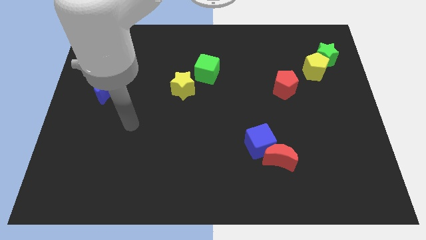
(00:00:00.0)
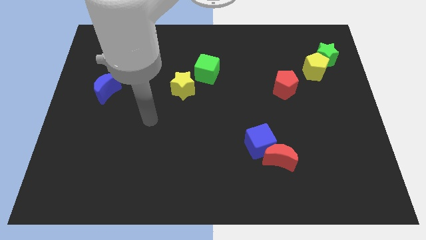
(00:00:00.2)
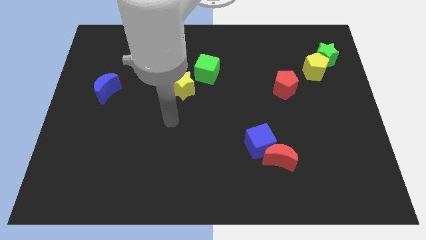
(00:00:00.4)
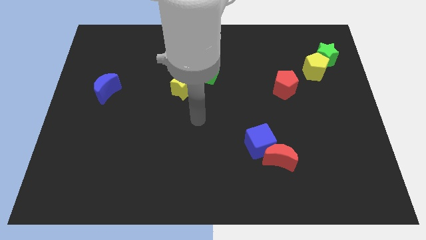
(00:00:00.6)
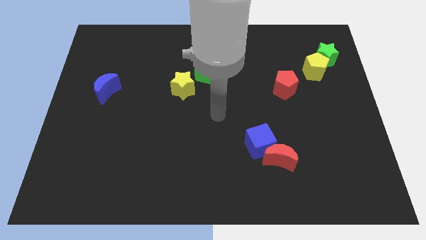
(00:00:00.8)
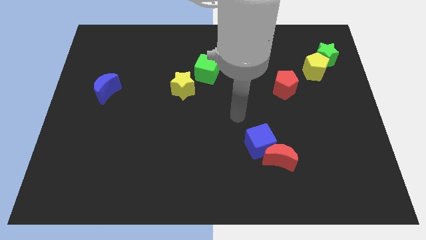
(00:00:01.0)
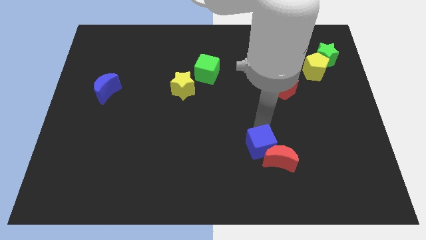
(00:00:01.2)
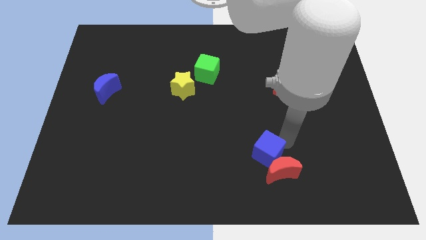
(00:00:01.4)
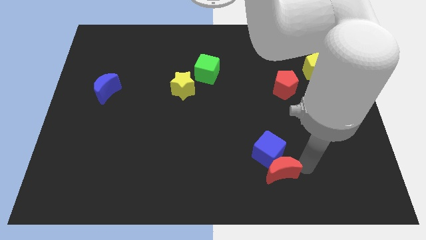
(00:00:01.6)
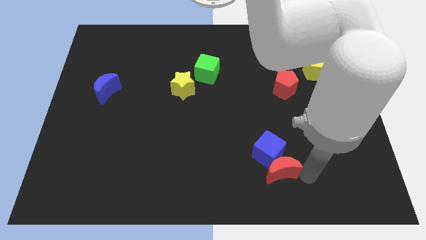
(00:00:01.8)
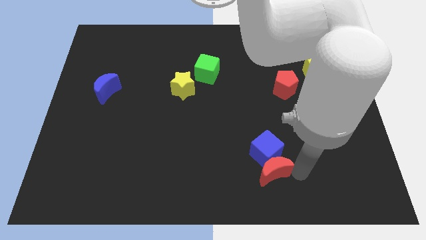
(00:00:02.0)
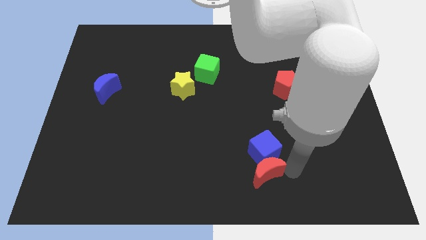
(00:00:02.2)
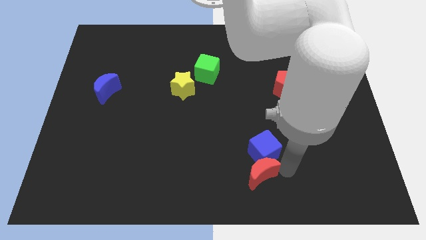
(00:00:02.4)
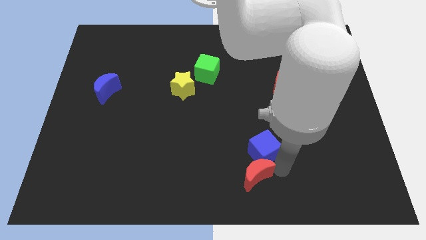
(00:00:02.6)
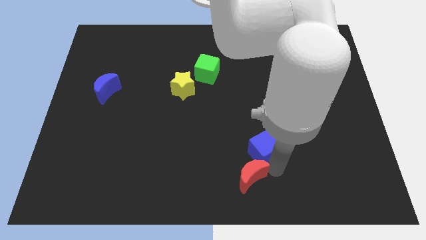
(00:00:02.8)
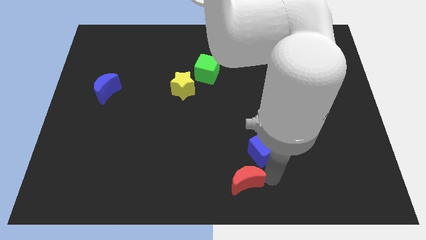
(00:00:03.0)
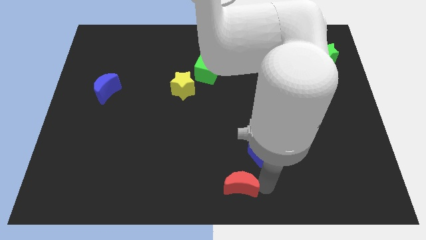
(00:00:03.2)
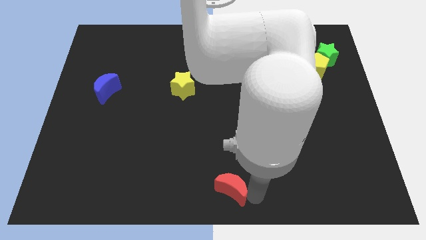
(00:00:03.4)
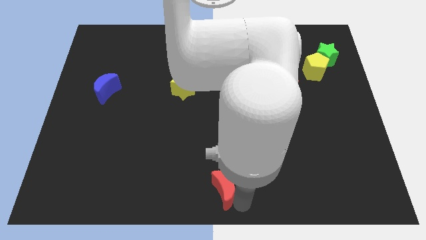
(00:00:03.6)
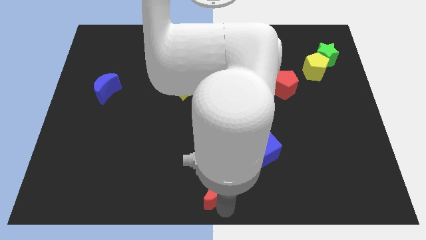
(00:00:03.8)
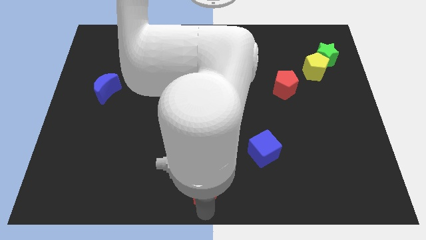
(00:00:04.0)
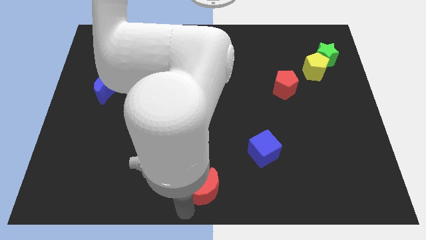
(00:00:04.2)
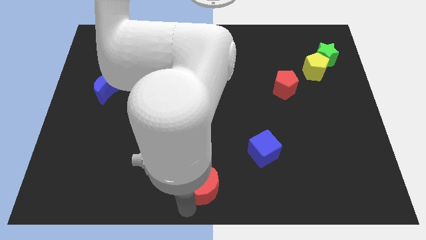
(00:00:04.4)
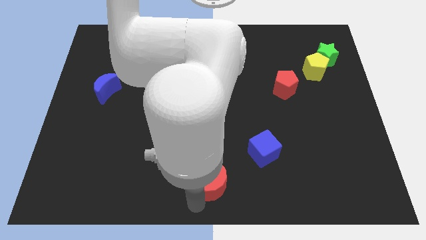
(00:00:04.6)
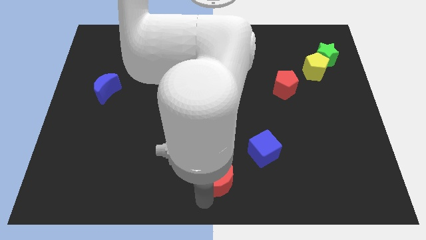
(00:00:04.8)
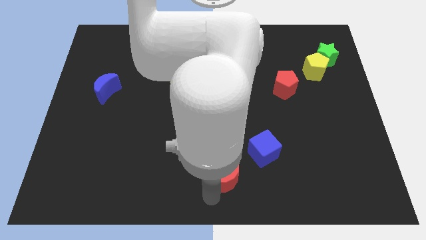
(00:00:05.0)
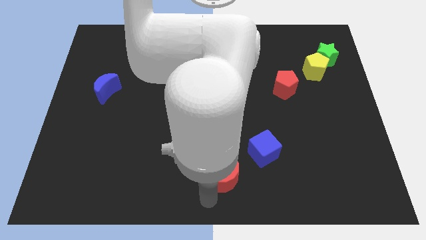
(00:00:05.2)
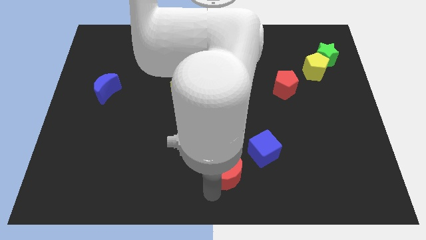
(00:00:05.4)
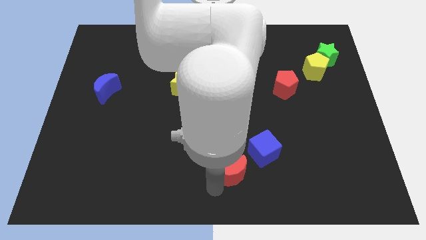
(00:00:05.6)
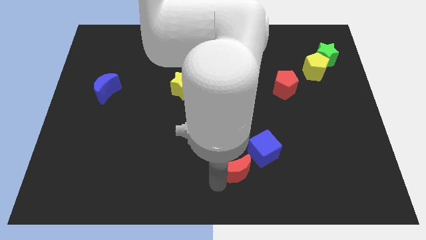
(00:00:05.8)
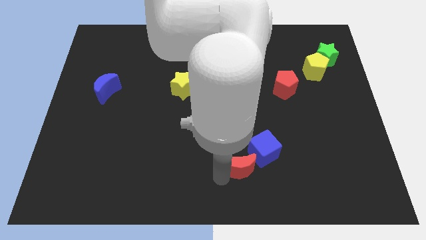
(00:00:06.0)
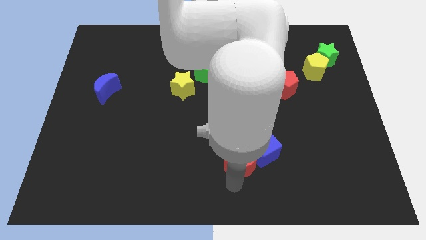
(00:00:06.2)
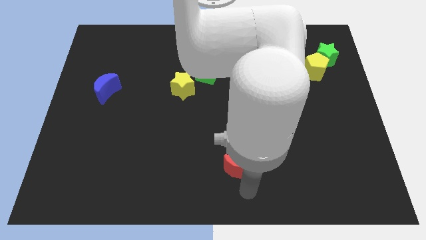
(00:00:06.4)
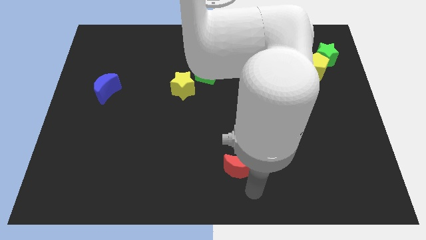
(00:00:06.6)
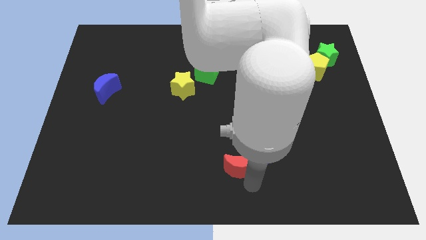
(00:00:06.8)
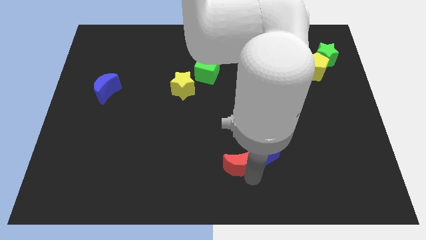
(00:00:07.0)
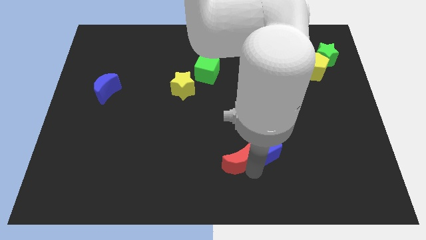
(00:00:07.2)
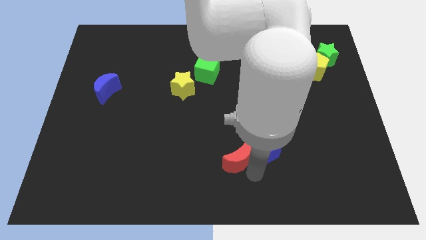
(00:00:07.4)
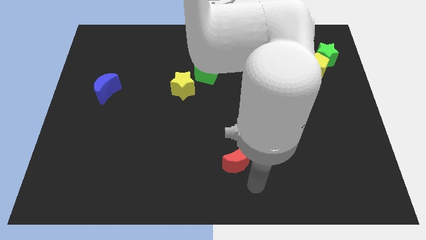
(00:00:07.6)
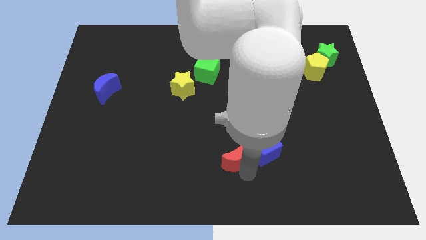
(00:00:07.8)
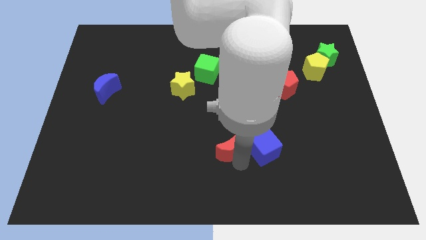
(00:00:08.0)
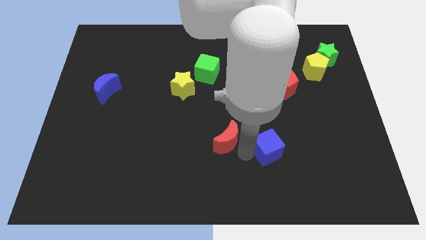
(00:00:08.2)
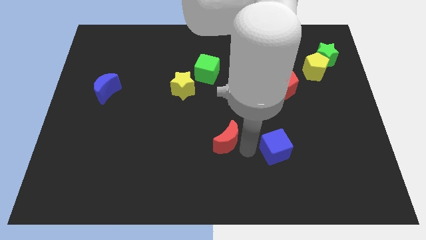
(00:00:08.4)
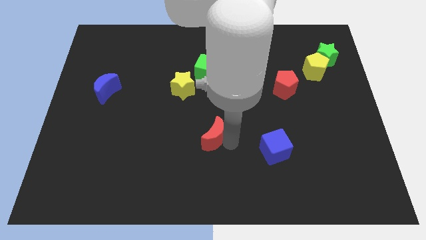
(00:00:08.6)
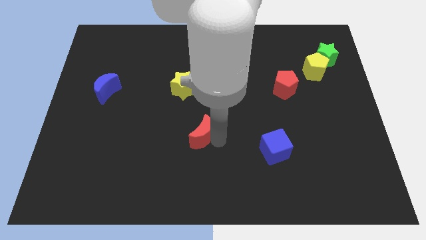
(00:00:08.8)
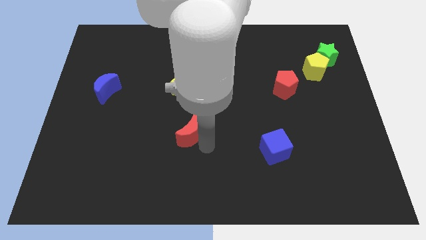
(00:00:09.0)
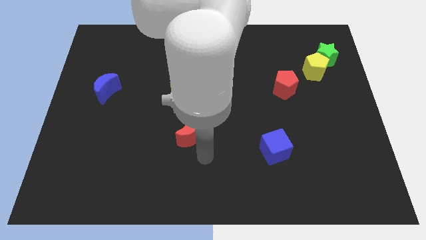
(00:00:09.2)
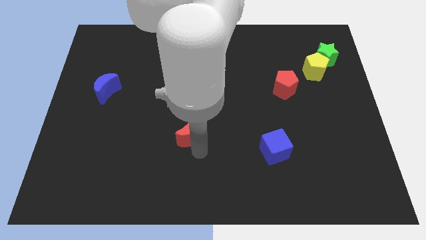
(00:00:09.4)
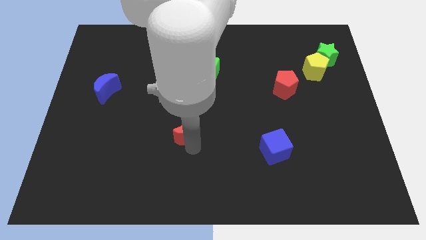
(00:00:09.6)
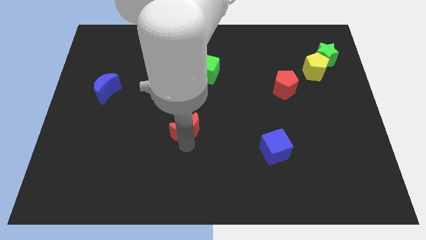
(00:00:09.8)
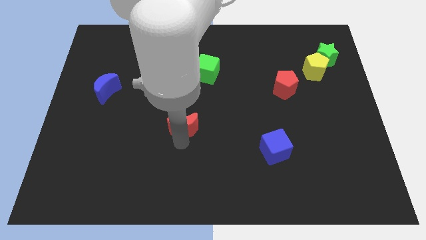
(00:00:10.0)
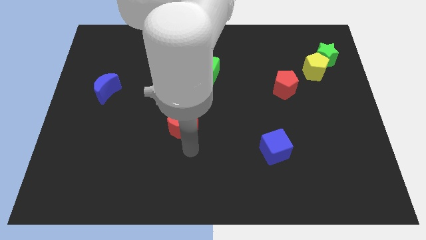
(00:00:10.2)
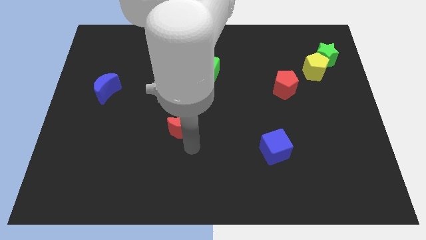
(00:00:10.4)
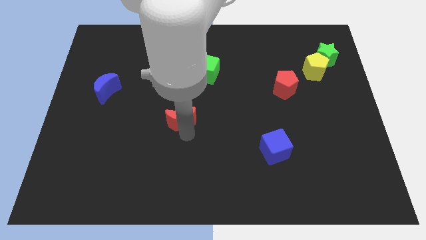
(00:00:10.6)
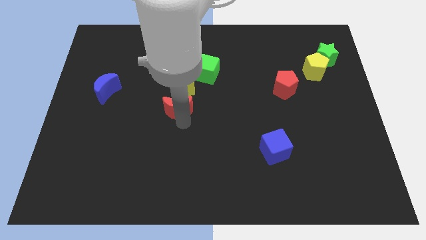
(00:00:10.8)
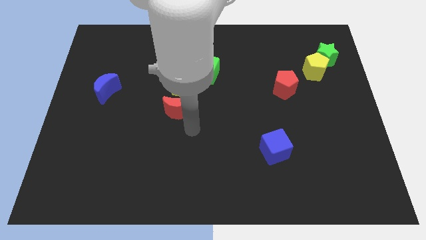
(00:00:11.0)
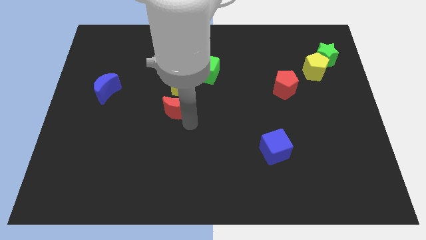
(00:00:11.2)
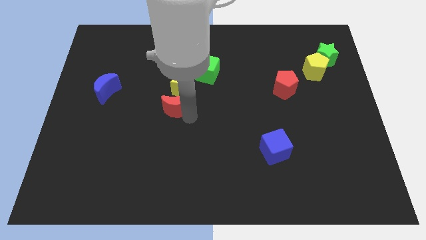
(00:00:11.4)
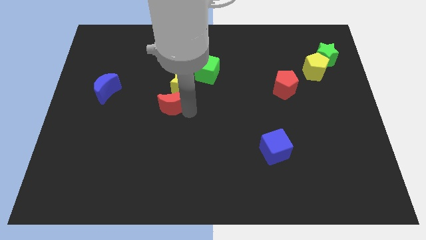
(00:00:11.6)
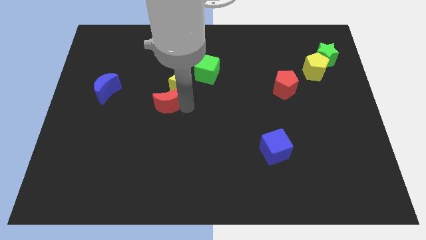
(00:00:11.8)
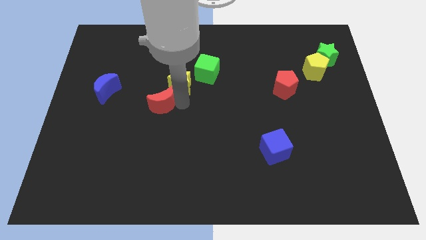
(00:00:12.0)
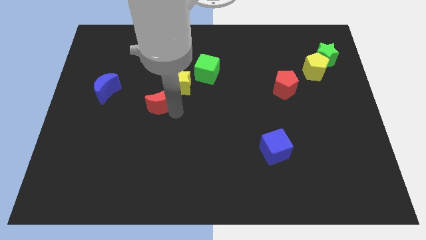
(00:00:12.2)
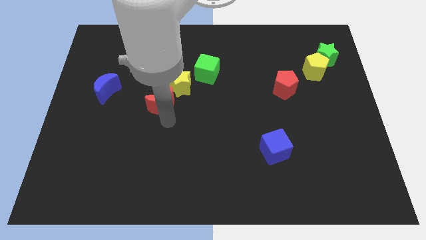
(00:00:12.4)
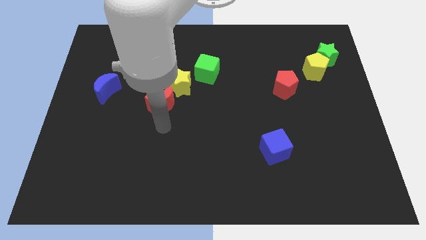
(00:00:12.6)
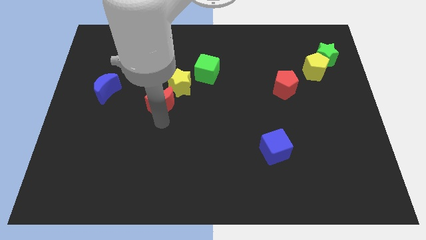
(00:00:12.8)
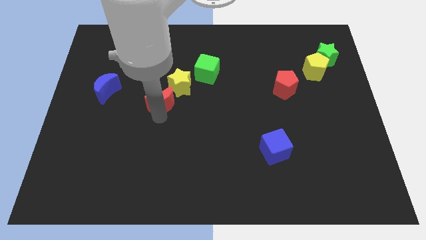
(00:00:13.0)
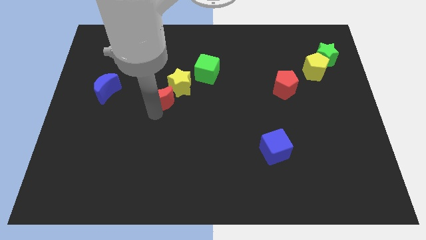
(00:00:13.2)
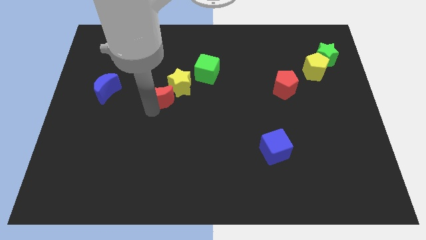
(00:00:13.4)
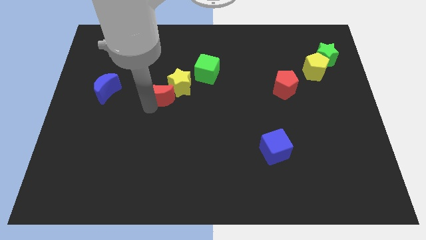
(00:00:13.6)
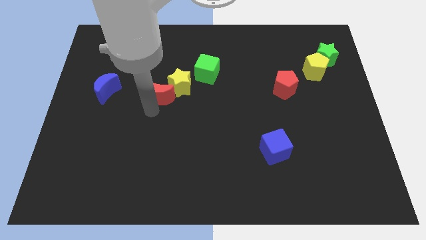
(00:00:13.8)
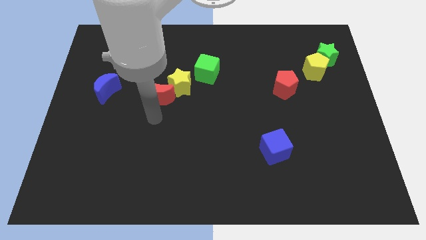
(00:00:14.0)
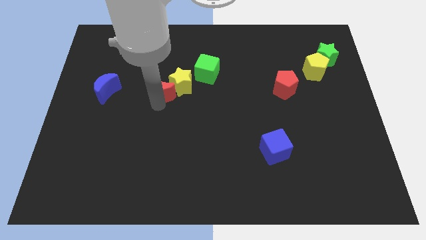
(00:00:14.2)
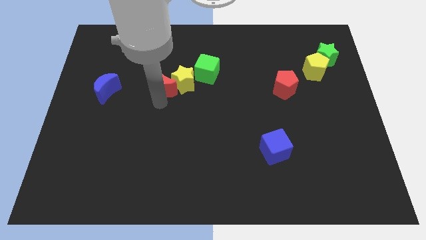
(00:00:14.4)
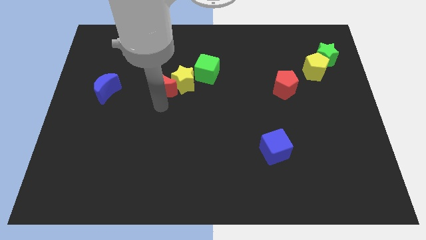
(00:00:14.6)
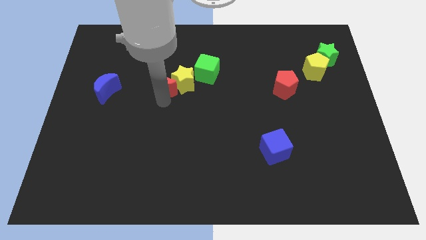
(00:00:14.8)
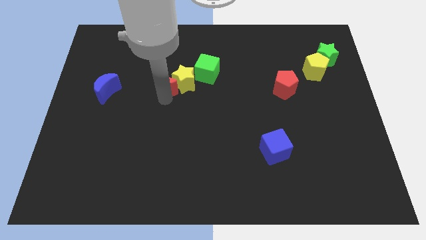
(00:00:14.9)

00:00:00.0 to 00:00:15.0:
slide the red moon left of the green cube

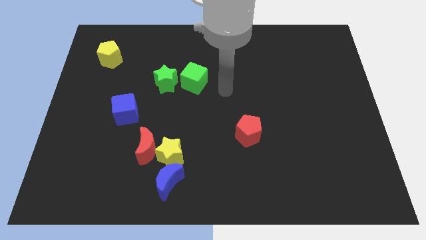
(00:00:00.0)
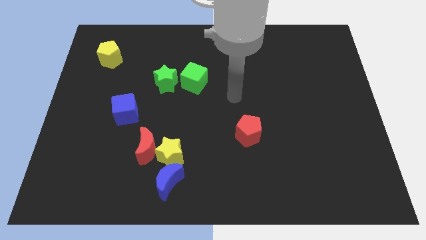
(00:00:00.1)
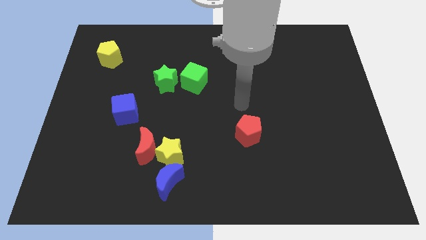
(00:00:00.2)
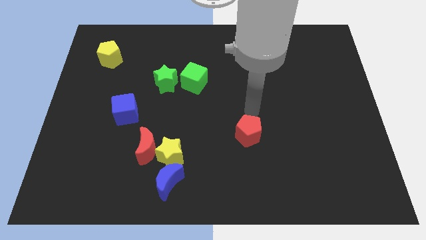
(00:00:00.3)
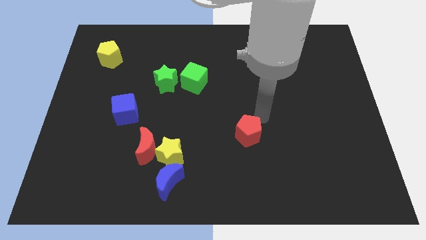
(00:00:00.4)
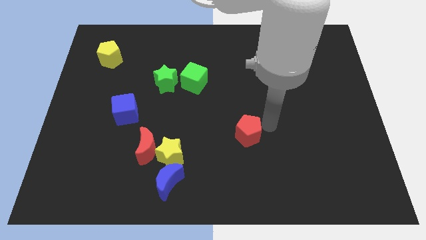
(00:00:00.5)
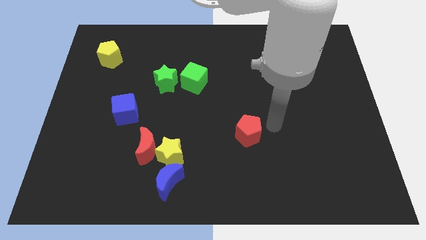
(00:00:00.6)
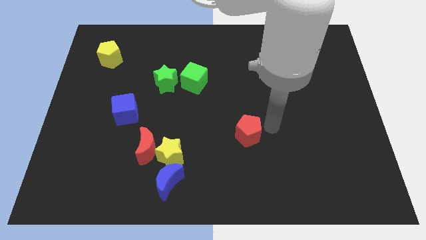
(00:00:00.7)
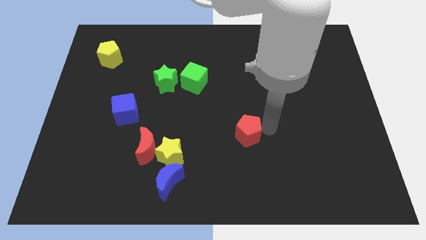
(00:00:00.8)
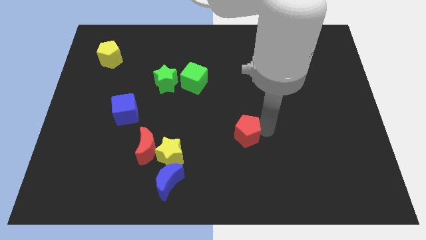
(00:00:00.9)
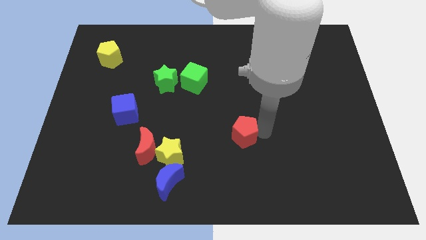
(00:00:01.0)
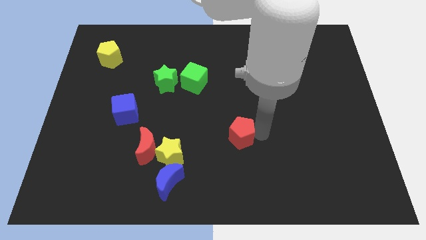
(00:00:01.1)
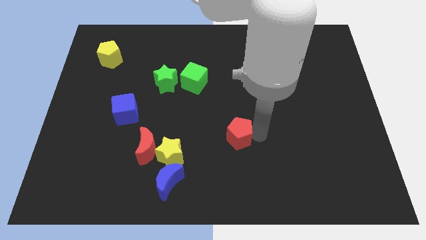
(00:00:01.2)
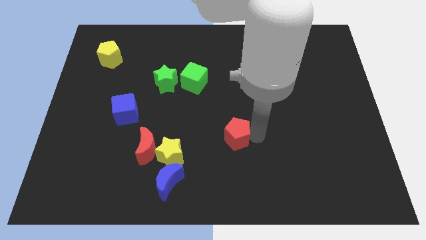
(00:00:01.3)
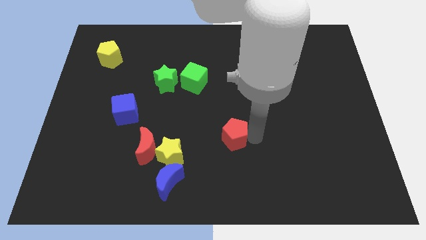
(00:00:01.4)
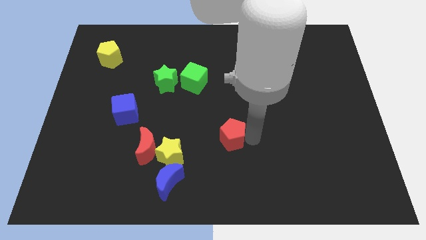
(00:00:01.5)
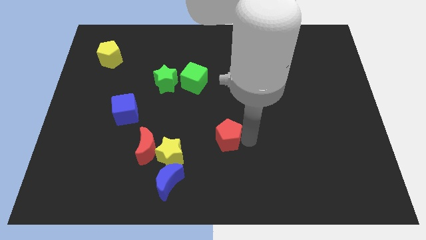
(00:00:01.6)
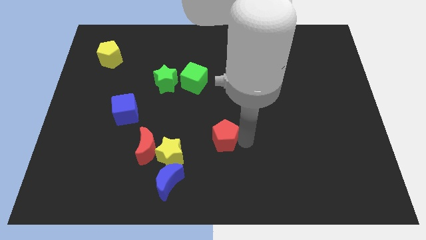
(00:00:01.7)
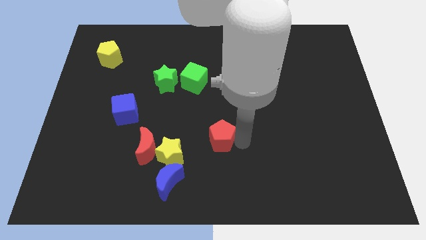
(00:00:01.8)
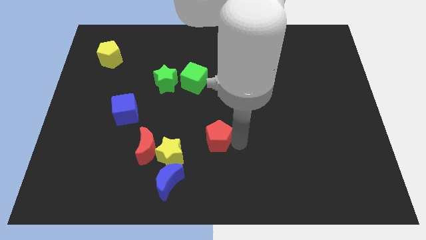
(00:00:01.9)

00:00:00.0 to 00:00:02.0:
put the red pentagon to the right of the red moon
